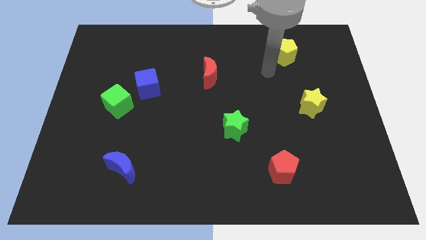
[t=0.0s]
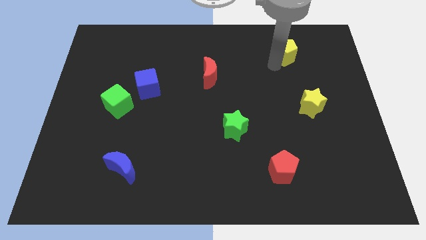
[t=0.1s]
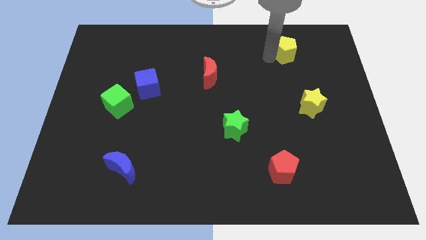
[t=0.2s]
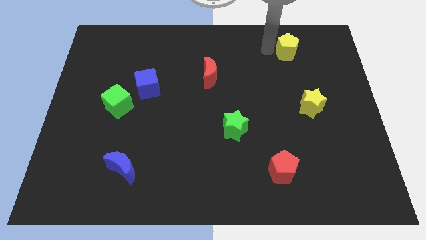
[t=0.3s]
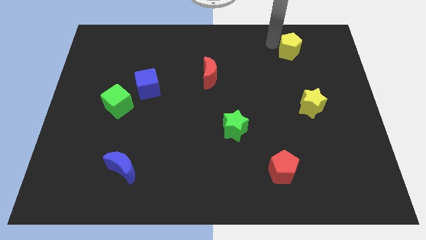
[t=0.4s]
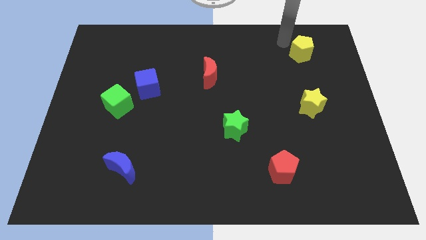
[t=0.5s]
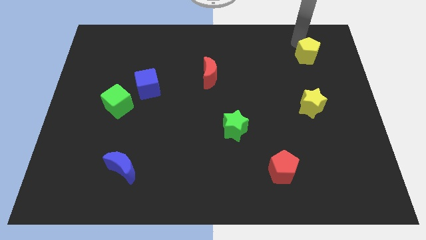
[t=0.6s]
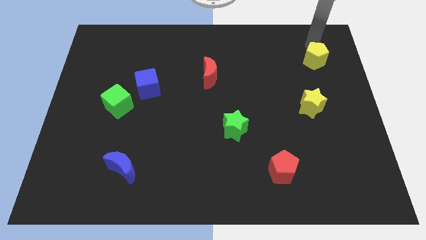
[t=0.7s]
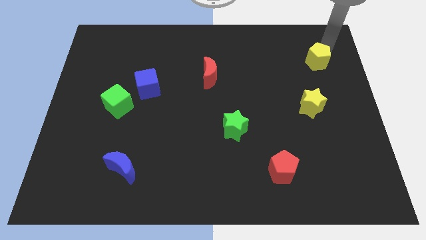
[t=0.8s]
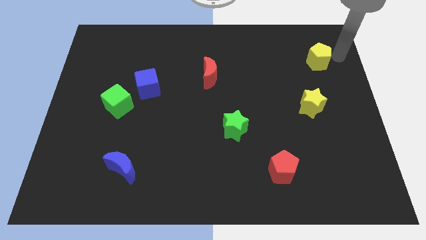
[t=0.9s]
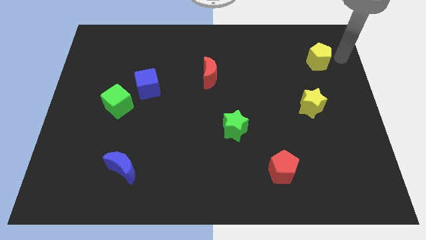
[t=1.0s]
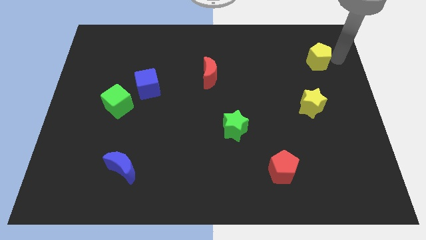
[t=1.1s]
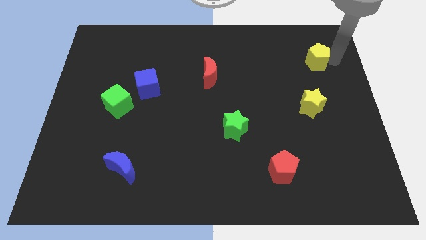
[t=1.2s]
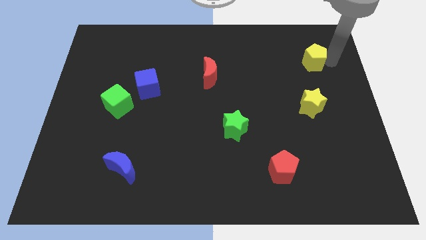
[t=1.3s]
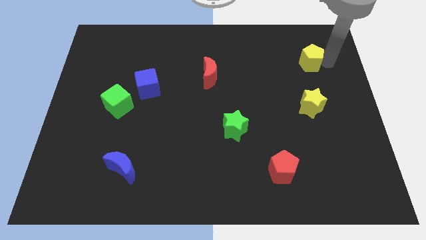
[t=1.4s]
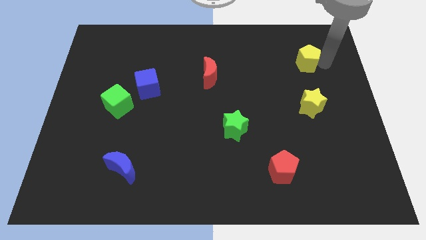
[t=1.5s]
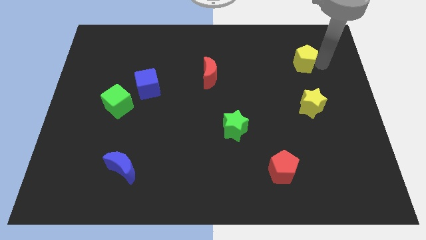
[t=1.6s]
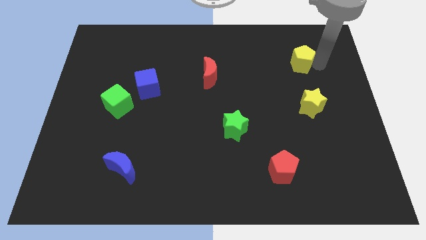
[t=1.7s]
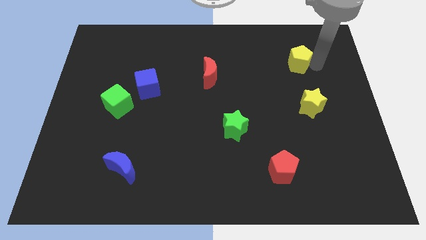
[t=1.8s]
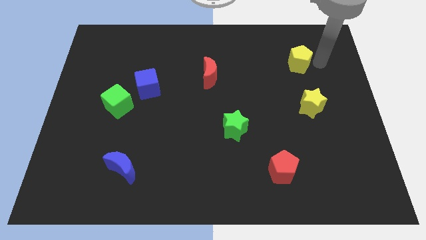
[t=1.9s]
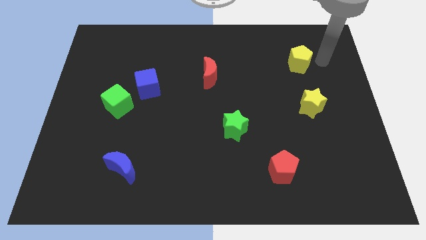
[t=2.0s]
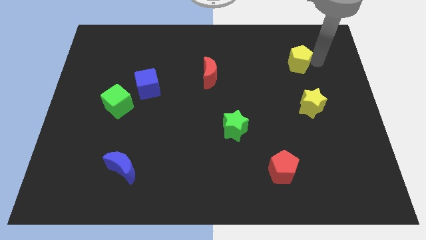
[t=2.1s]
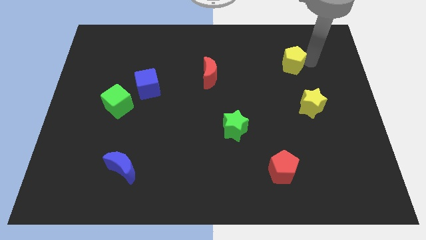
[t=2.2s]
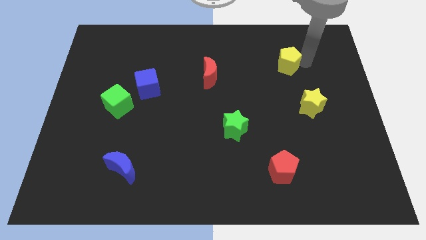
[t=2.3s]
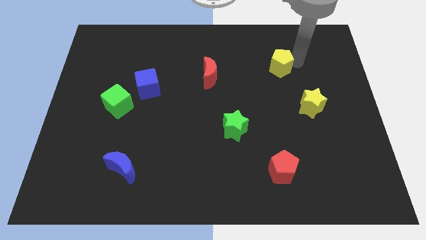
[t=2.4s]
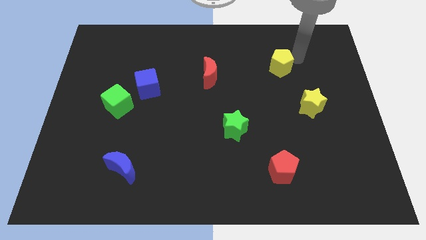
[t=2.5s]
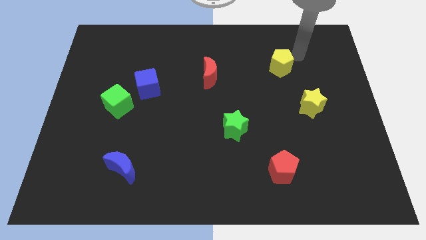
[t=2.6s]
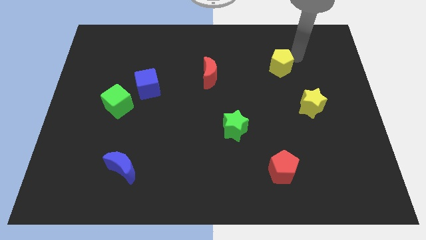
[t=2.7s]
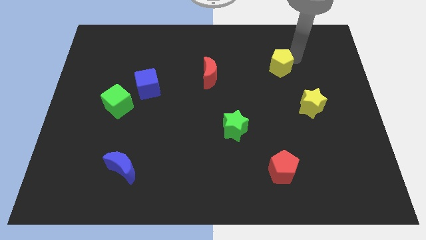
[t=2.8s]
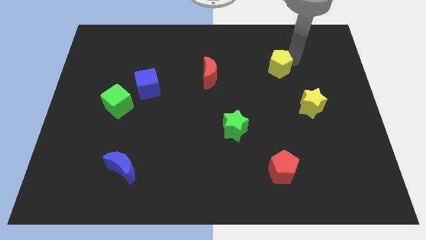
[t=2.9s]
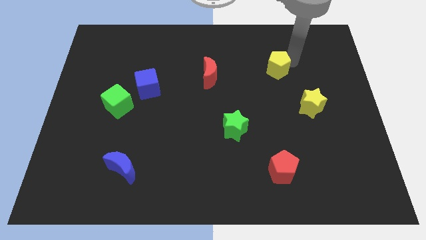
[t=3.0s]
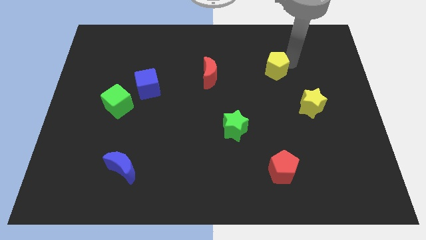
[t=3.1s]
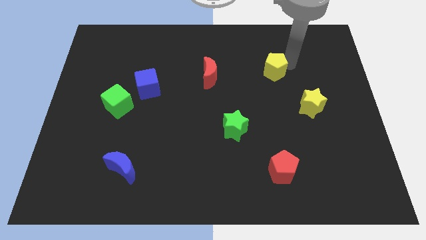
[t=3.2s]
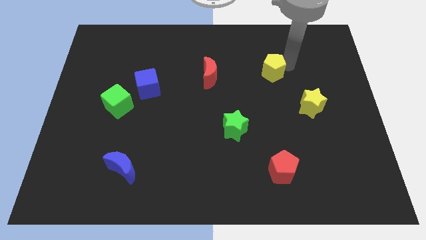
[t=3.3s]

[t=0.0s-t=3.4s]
move the yellow pentagon somewhat diagonally downwards and to the left

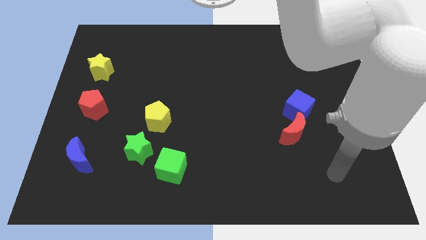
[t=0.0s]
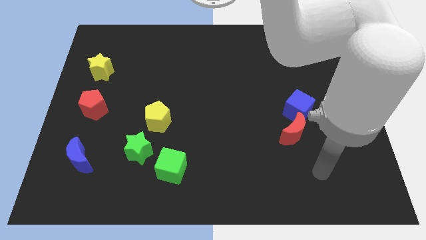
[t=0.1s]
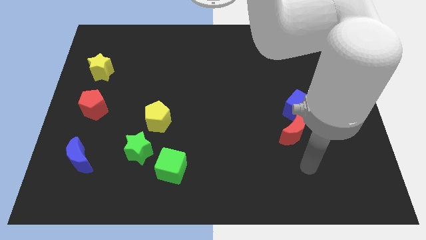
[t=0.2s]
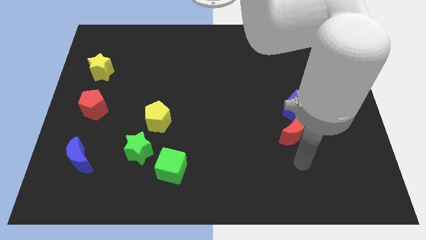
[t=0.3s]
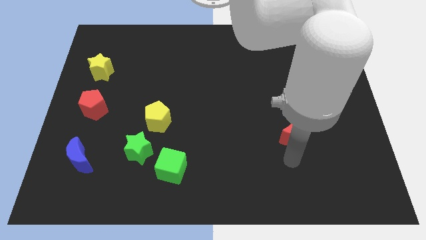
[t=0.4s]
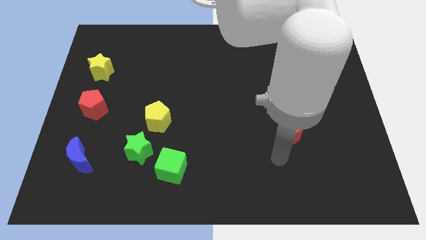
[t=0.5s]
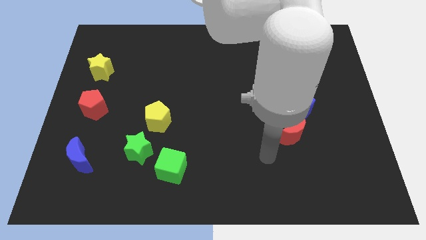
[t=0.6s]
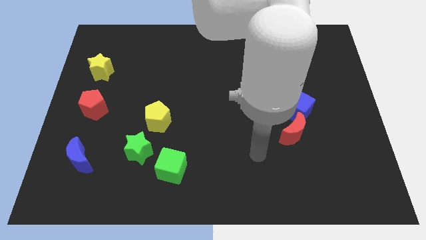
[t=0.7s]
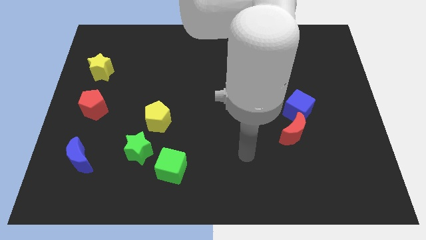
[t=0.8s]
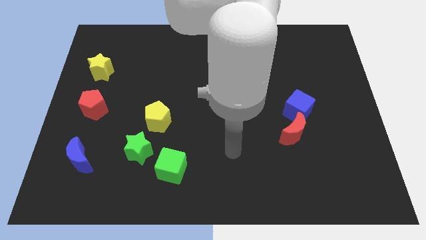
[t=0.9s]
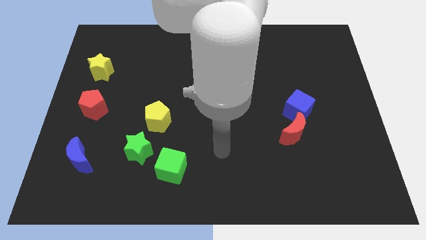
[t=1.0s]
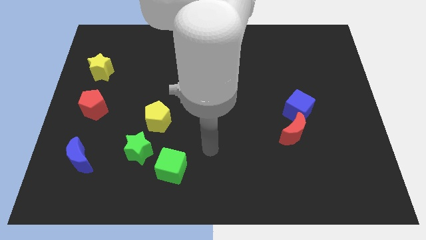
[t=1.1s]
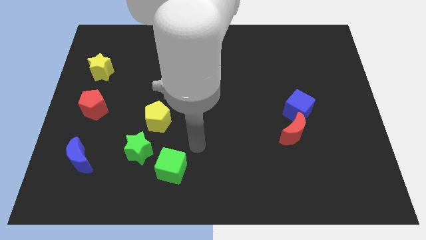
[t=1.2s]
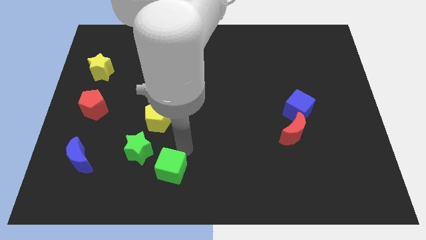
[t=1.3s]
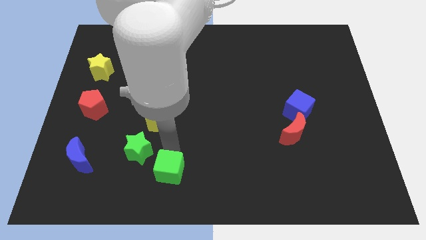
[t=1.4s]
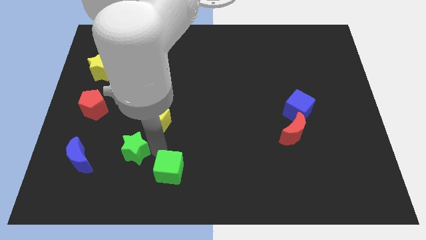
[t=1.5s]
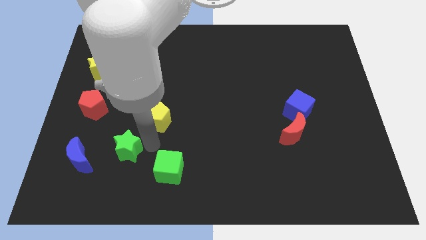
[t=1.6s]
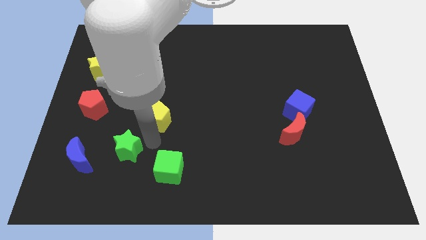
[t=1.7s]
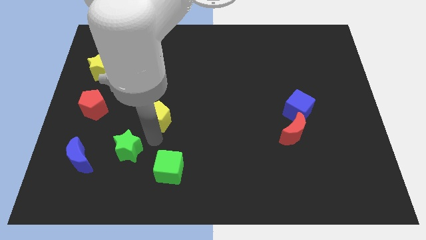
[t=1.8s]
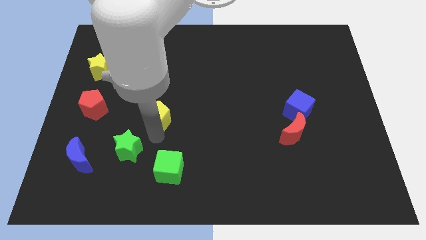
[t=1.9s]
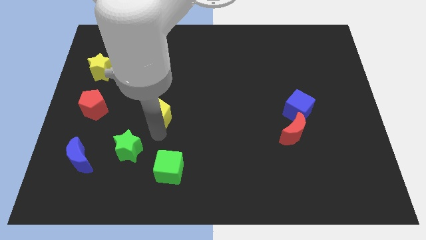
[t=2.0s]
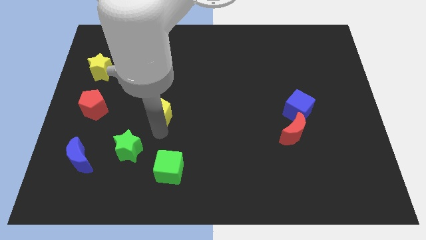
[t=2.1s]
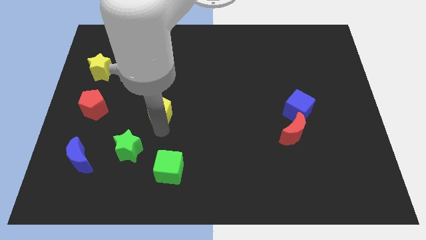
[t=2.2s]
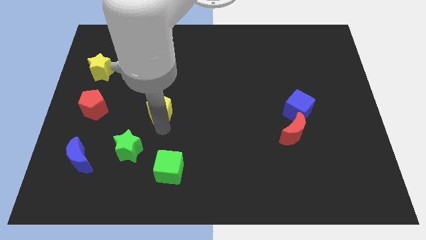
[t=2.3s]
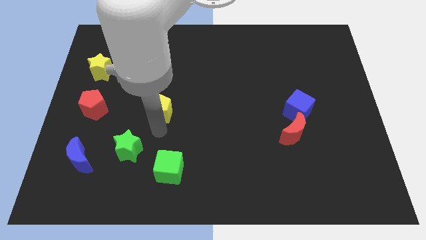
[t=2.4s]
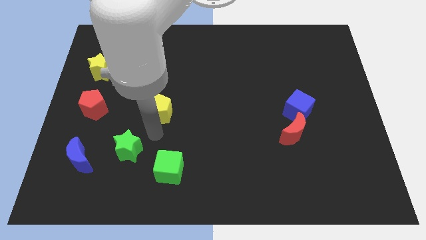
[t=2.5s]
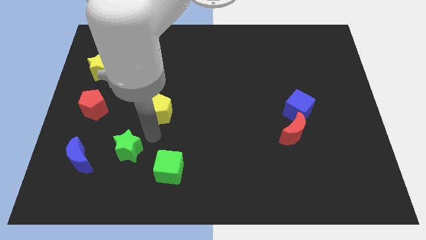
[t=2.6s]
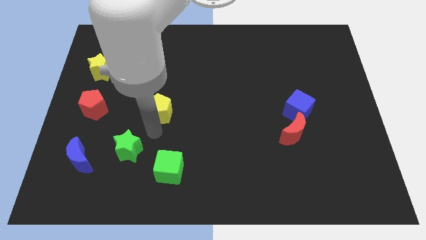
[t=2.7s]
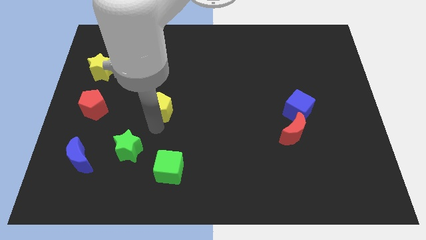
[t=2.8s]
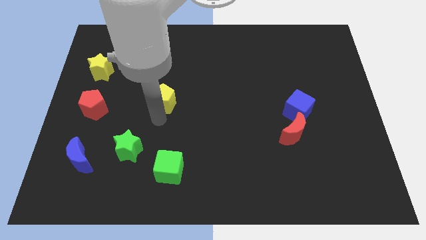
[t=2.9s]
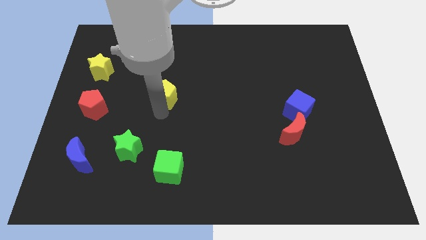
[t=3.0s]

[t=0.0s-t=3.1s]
move the yellow pentagon a little up

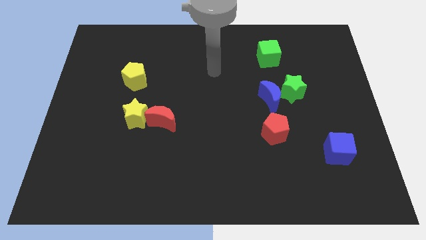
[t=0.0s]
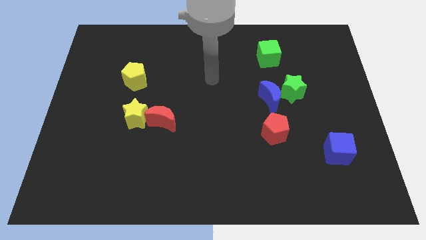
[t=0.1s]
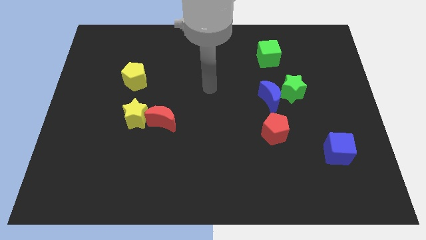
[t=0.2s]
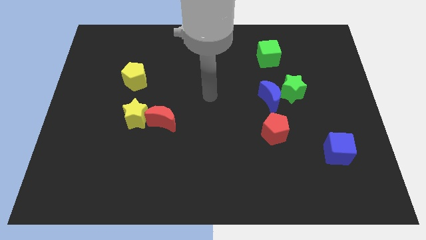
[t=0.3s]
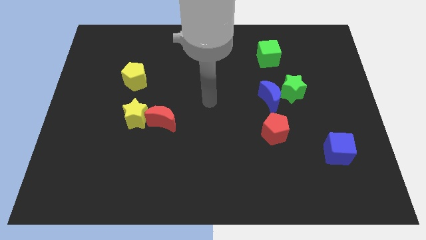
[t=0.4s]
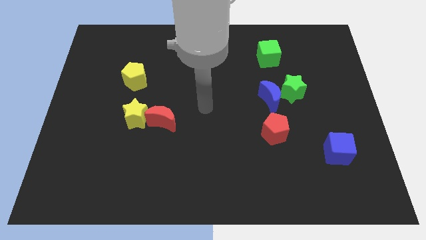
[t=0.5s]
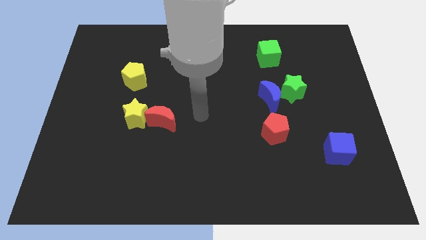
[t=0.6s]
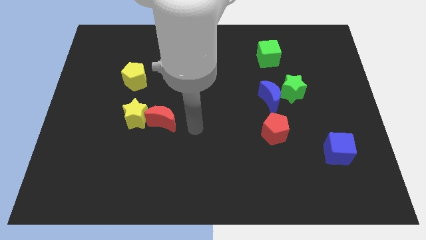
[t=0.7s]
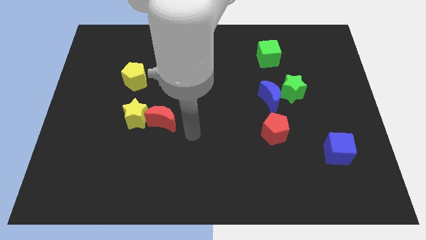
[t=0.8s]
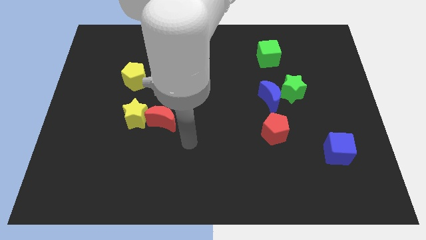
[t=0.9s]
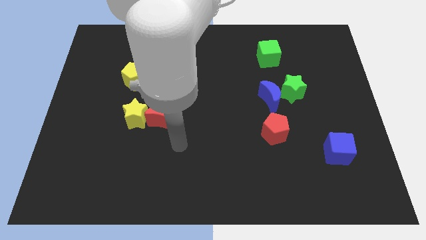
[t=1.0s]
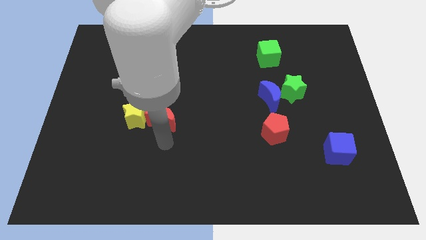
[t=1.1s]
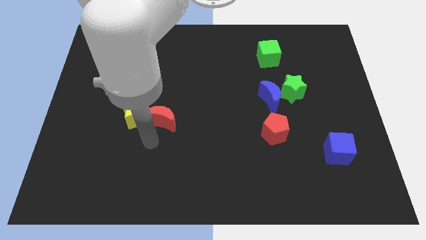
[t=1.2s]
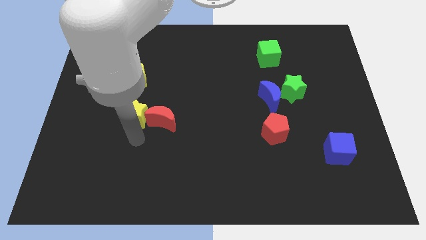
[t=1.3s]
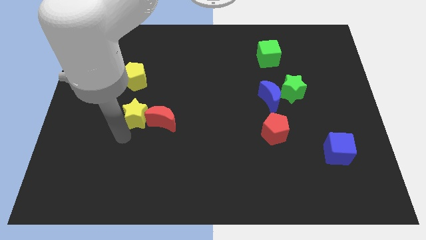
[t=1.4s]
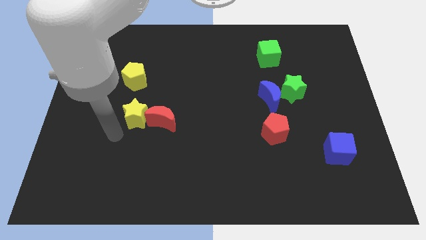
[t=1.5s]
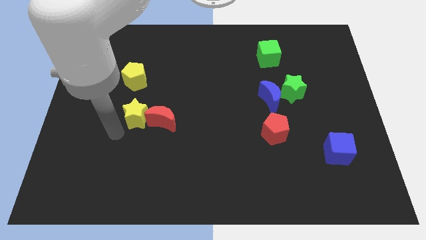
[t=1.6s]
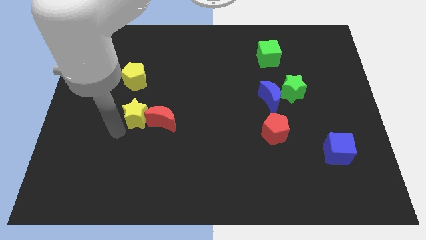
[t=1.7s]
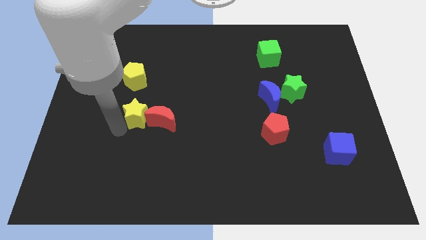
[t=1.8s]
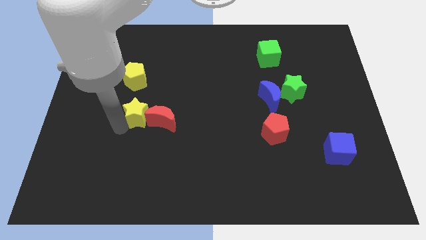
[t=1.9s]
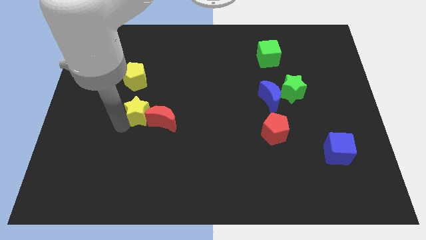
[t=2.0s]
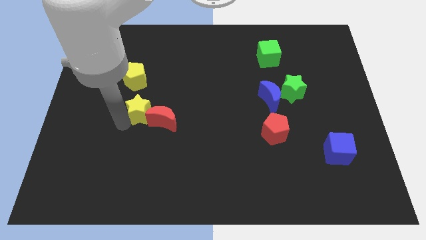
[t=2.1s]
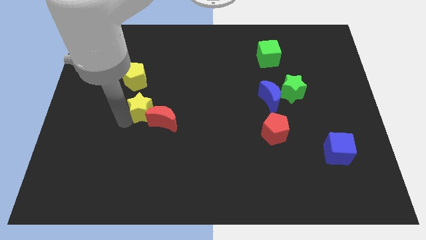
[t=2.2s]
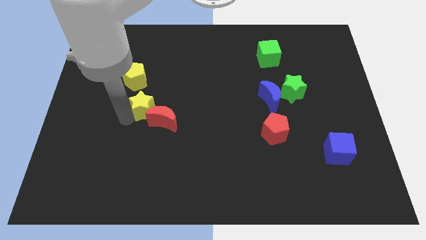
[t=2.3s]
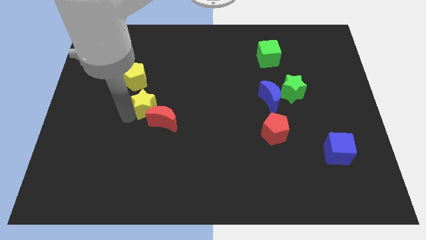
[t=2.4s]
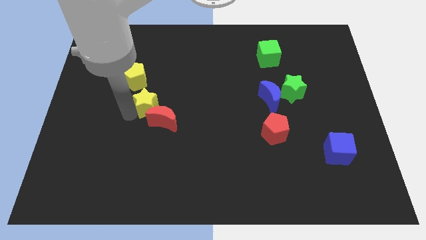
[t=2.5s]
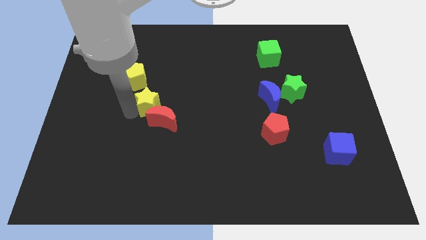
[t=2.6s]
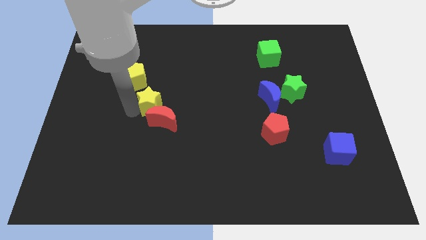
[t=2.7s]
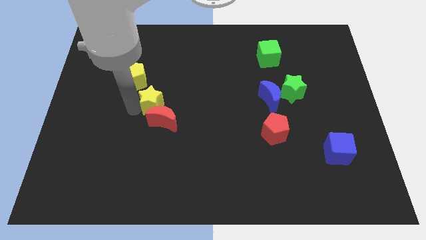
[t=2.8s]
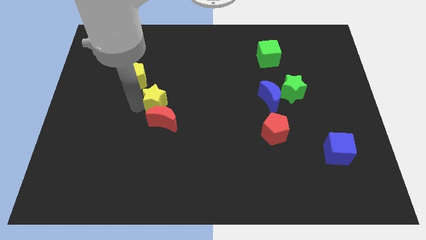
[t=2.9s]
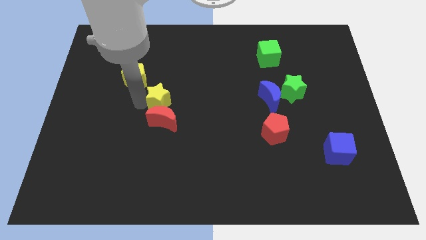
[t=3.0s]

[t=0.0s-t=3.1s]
slightly slide the yellow star diagonally up and right
